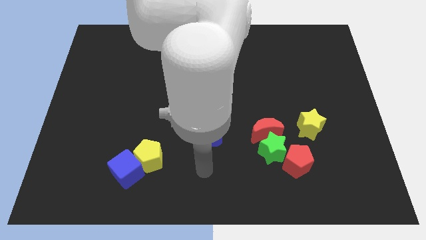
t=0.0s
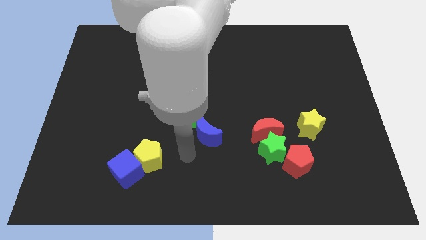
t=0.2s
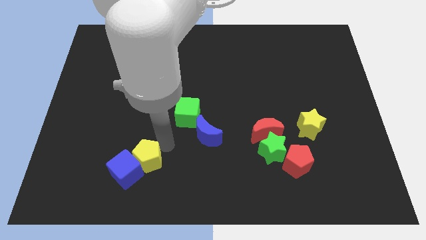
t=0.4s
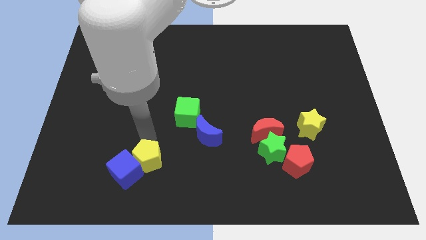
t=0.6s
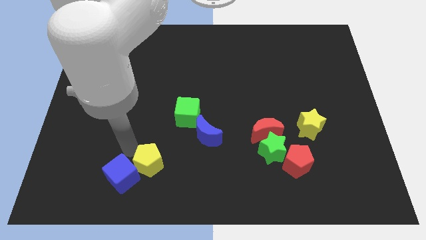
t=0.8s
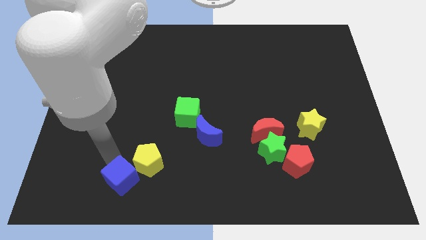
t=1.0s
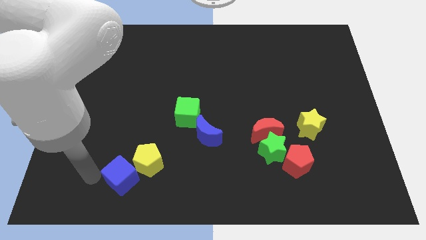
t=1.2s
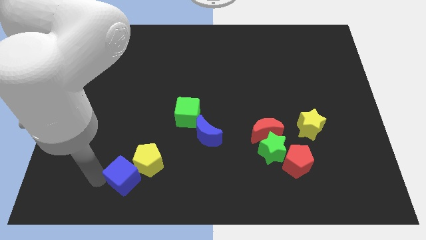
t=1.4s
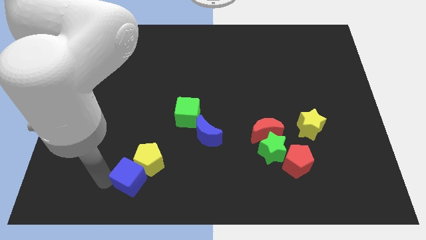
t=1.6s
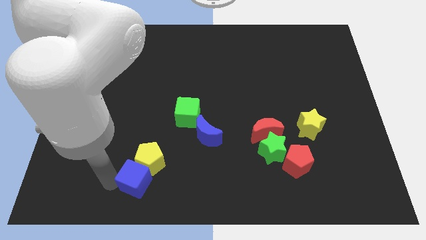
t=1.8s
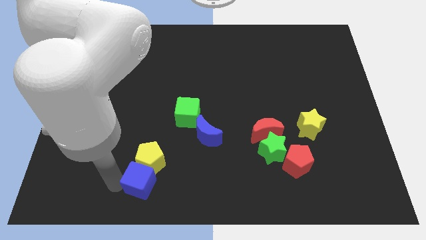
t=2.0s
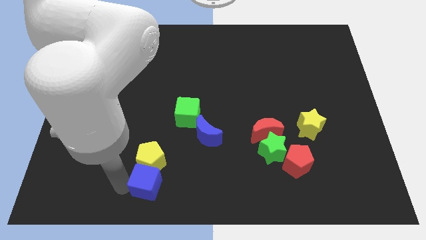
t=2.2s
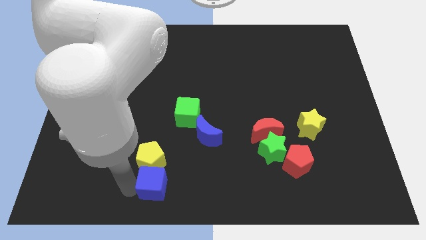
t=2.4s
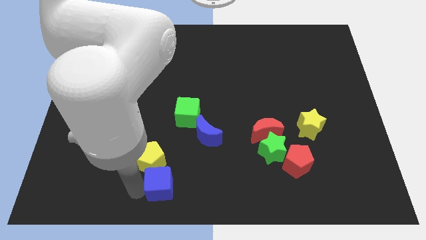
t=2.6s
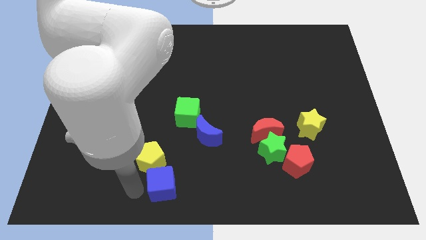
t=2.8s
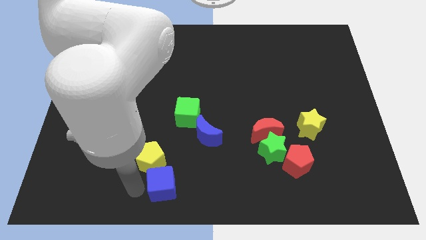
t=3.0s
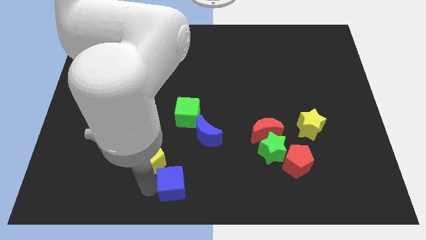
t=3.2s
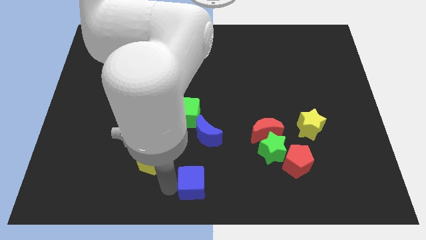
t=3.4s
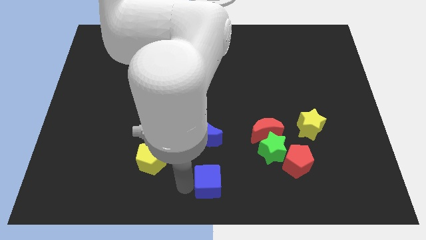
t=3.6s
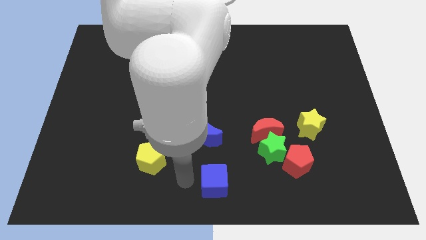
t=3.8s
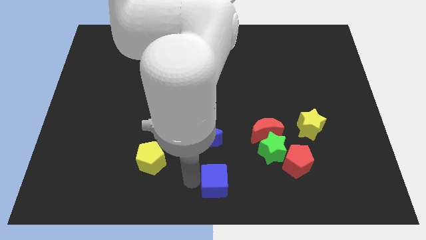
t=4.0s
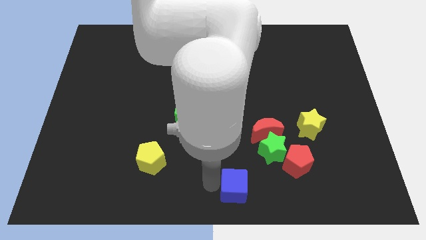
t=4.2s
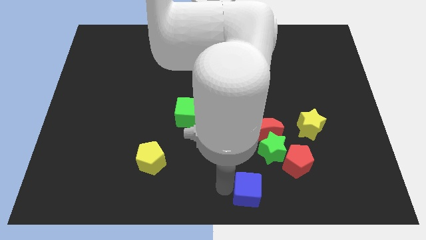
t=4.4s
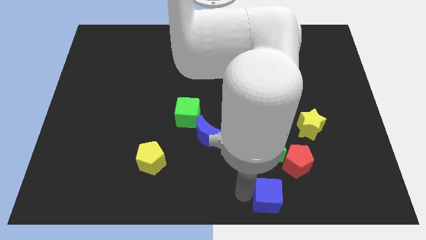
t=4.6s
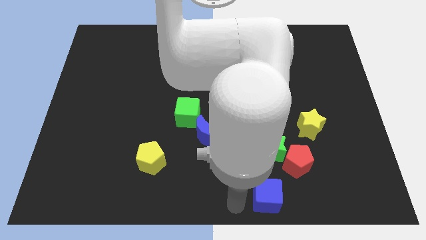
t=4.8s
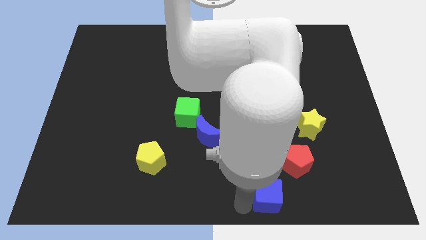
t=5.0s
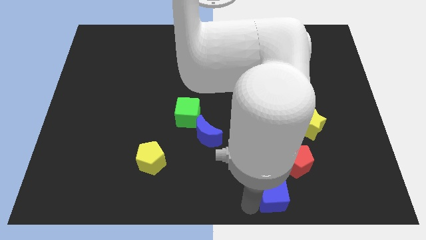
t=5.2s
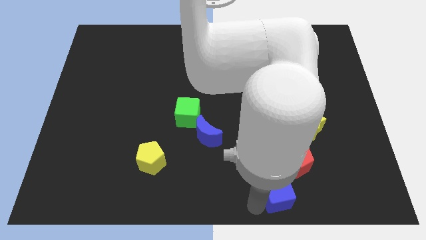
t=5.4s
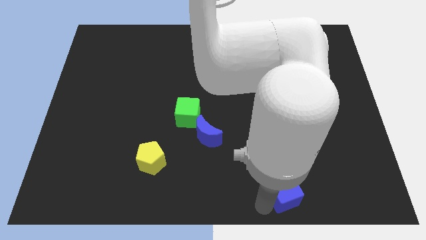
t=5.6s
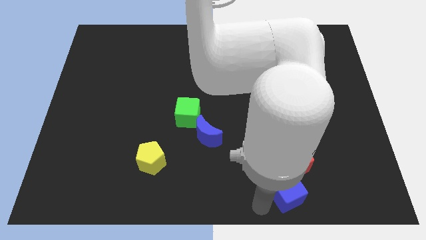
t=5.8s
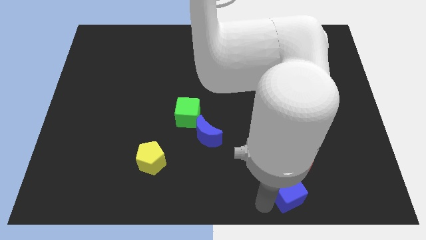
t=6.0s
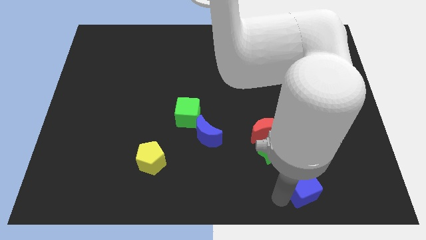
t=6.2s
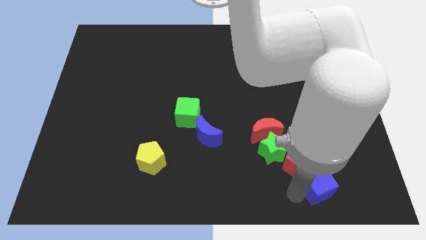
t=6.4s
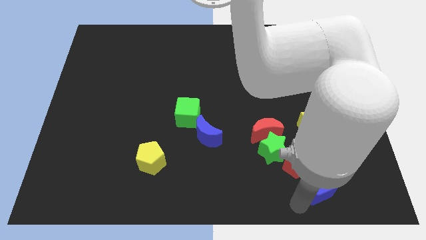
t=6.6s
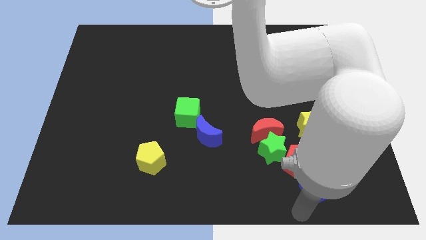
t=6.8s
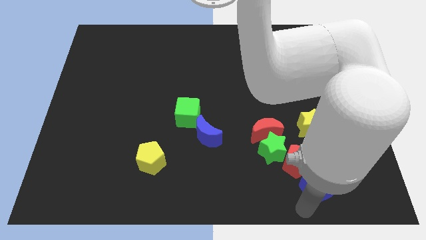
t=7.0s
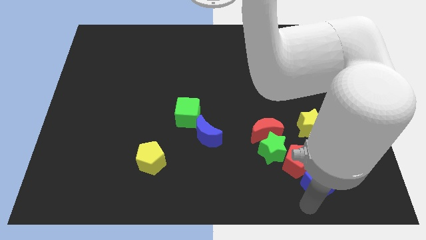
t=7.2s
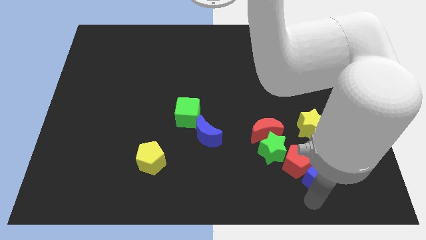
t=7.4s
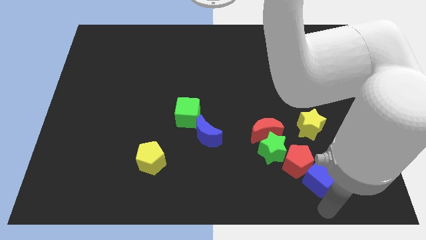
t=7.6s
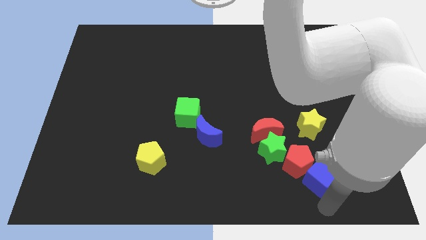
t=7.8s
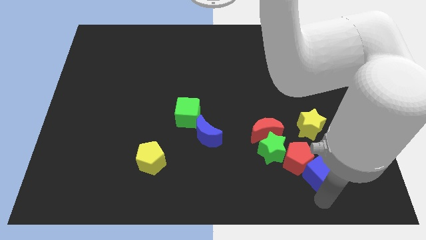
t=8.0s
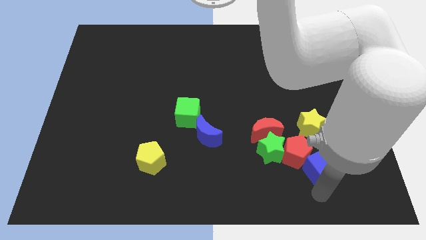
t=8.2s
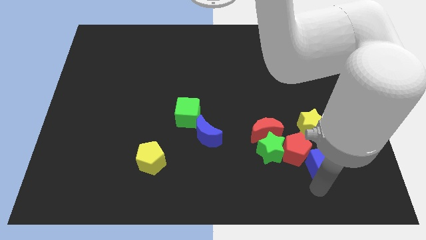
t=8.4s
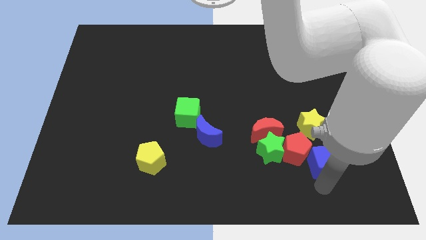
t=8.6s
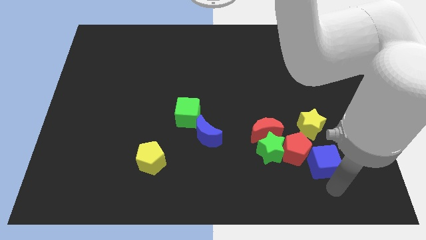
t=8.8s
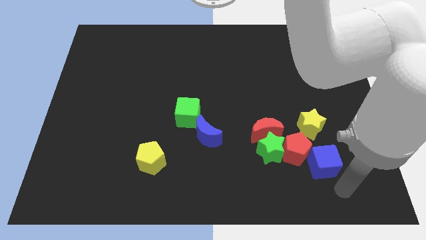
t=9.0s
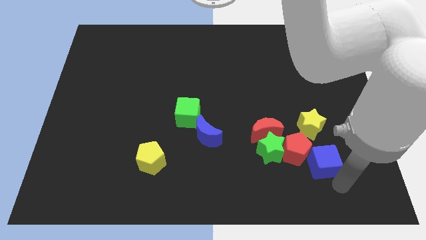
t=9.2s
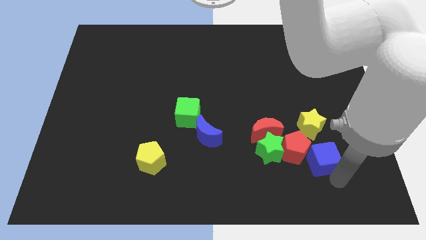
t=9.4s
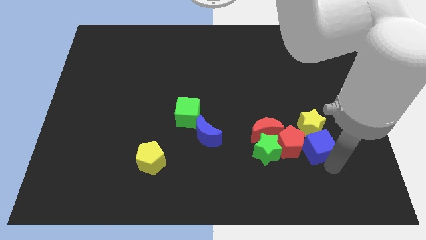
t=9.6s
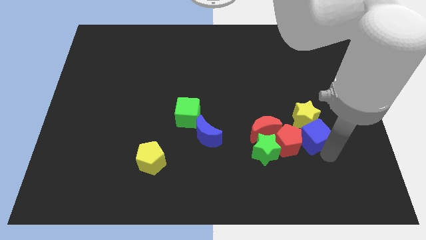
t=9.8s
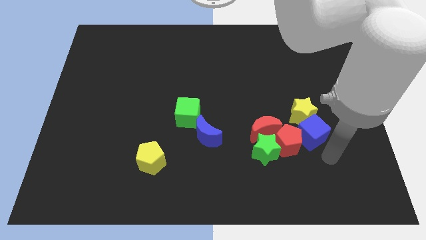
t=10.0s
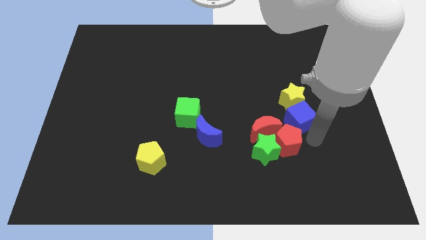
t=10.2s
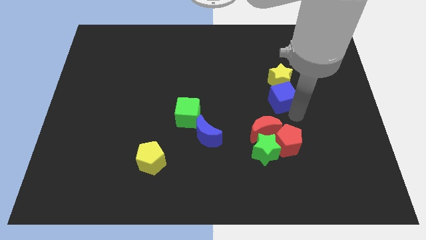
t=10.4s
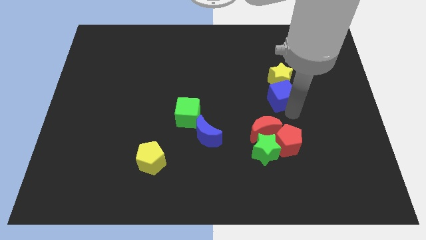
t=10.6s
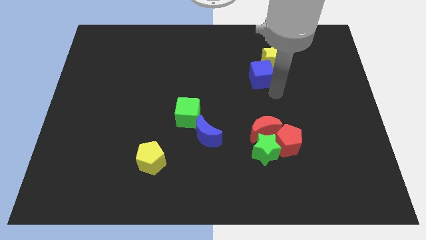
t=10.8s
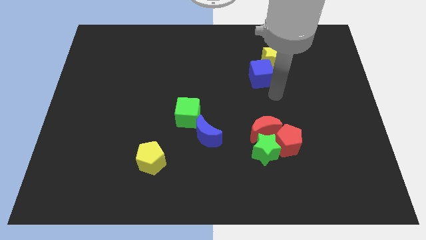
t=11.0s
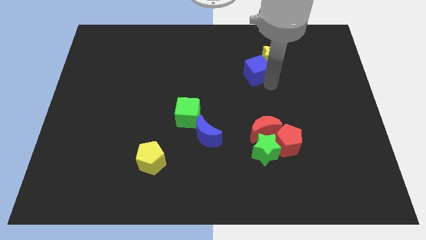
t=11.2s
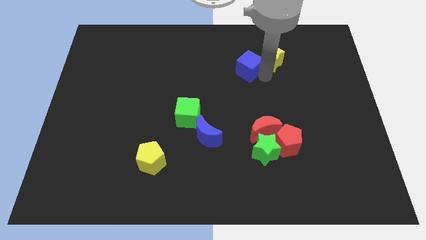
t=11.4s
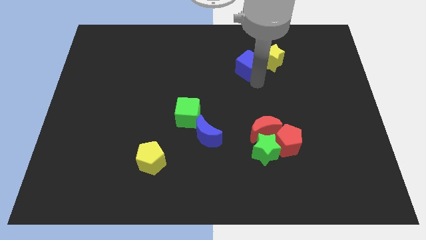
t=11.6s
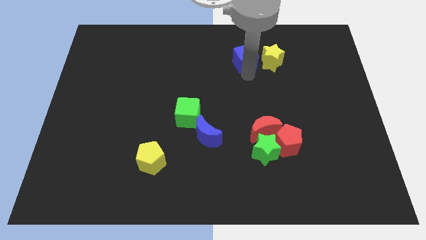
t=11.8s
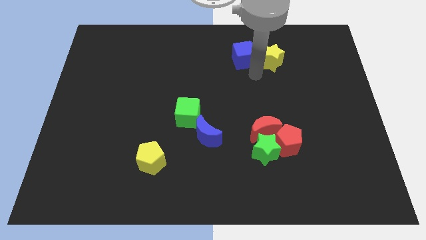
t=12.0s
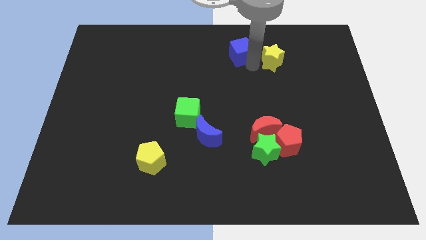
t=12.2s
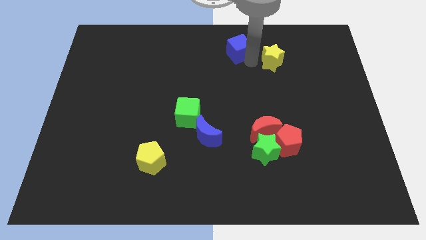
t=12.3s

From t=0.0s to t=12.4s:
put the blue cube to the top

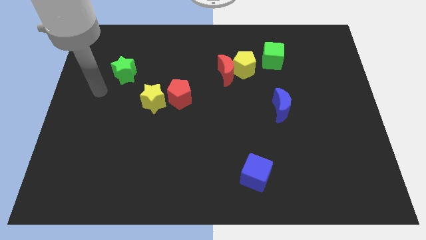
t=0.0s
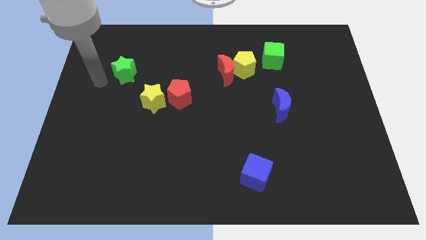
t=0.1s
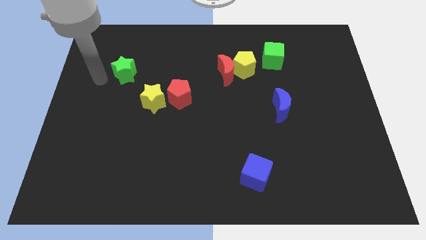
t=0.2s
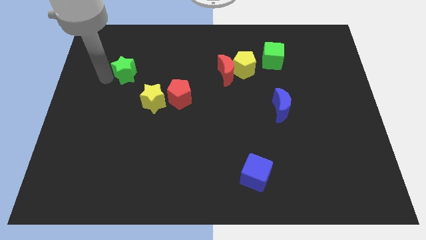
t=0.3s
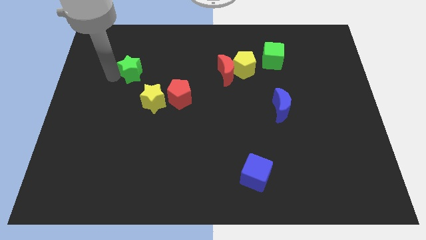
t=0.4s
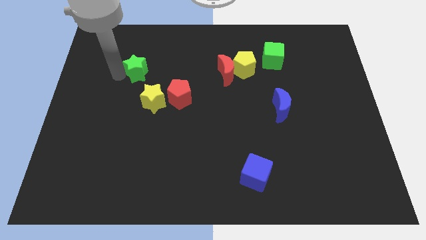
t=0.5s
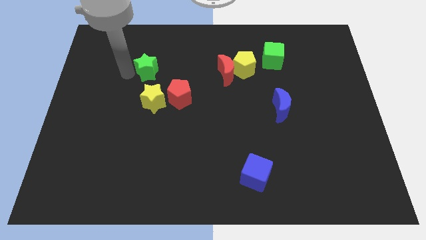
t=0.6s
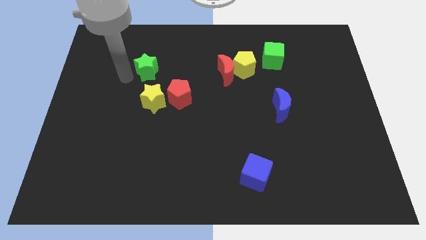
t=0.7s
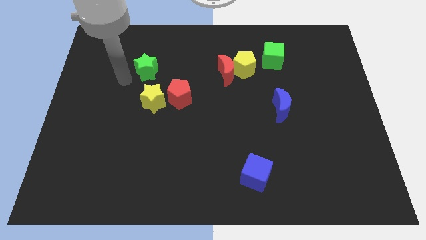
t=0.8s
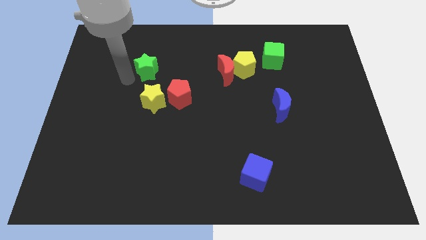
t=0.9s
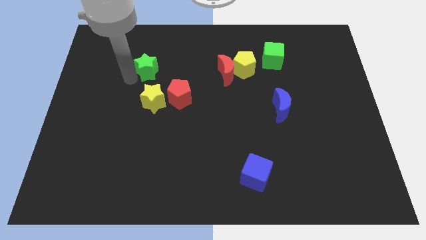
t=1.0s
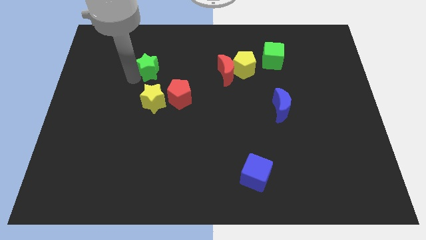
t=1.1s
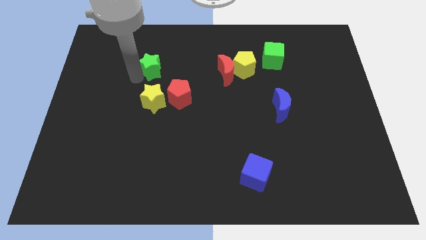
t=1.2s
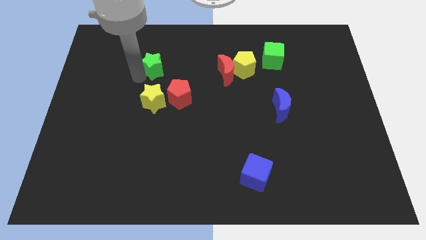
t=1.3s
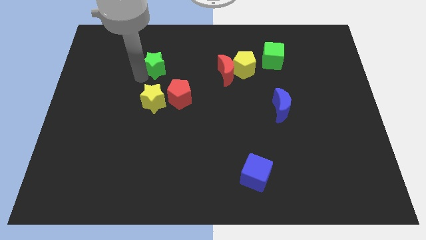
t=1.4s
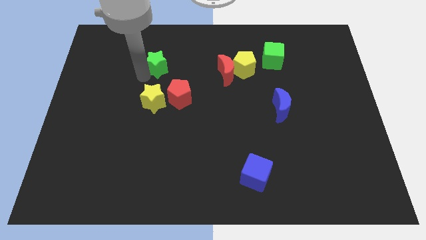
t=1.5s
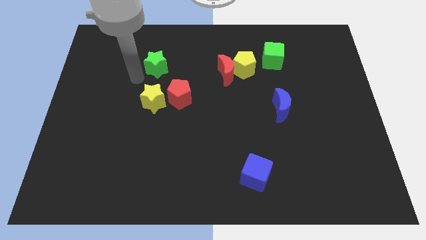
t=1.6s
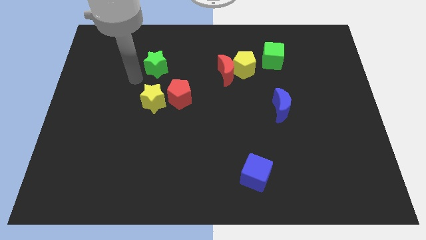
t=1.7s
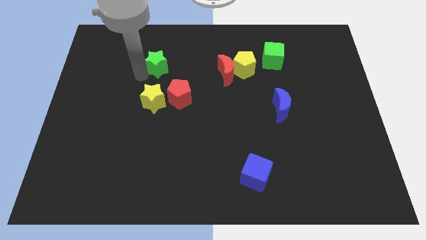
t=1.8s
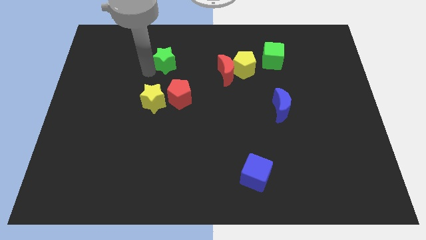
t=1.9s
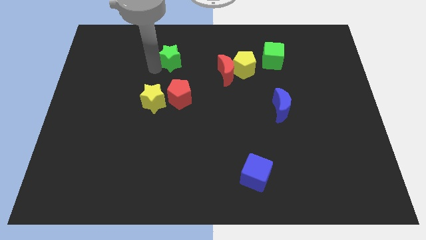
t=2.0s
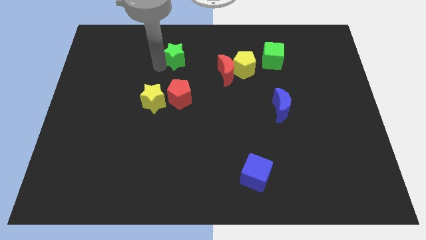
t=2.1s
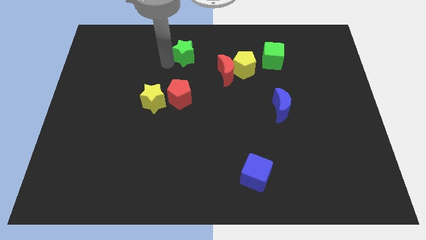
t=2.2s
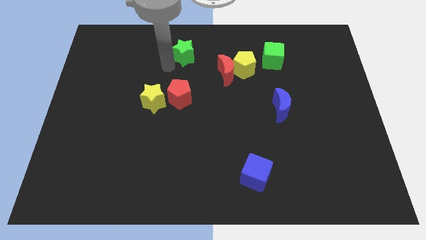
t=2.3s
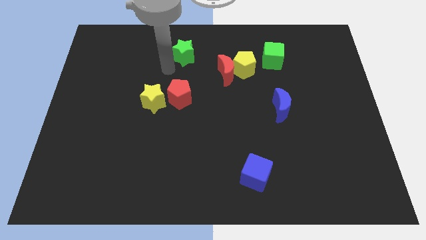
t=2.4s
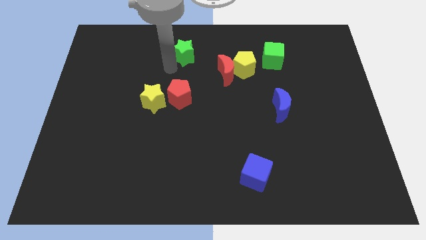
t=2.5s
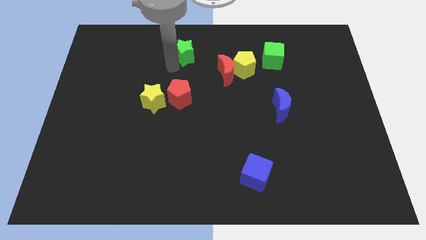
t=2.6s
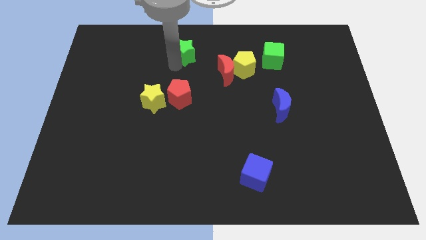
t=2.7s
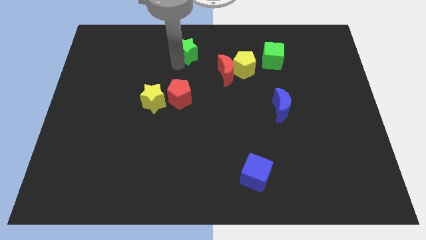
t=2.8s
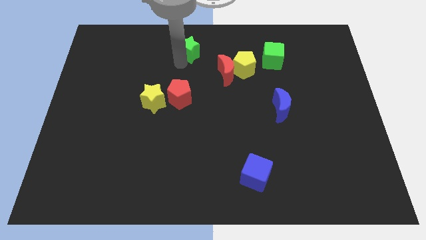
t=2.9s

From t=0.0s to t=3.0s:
move the green star to the towards your base
